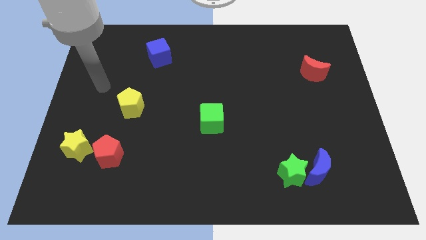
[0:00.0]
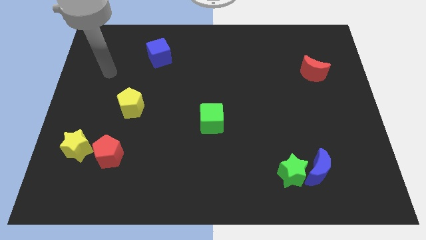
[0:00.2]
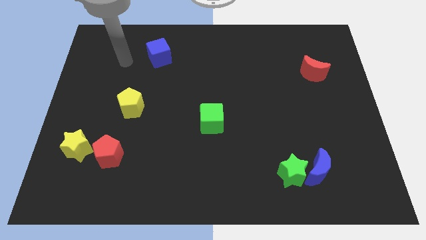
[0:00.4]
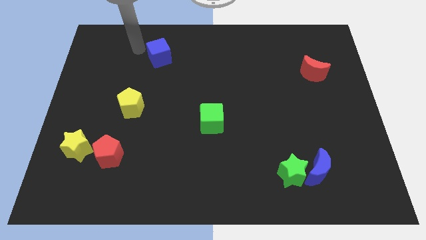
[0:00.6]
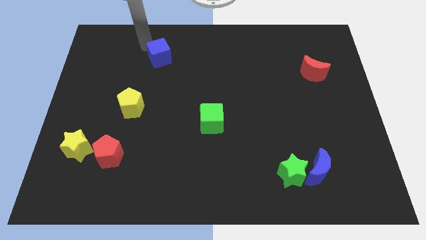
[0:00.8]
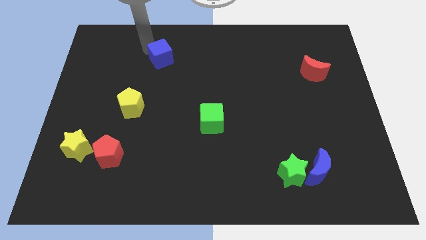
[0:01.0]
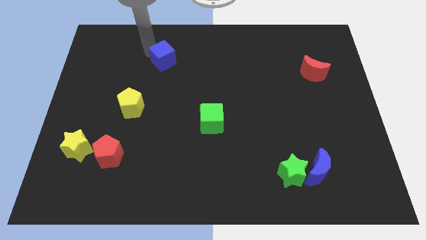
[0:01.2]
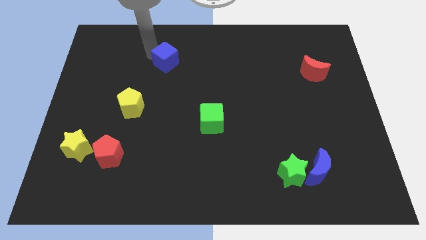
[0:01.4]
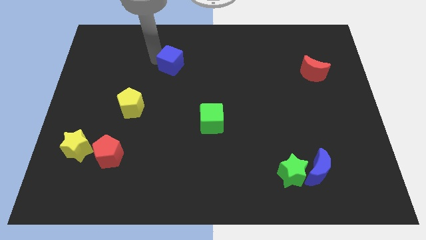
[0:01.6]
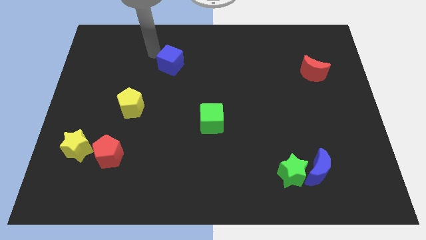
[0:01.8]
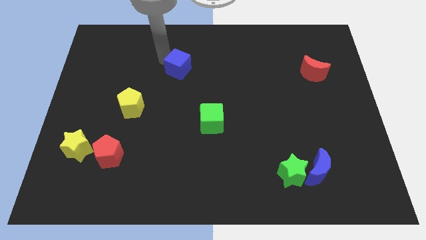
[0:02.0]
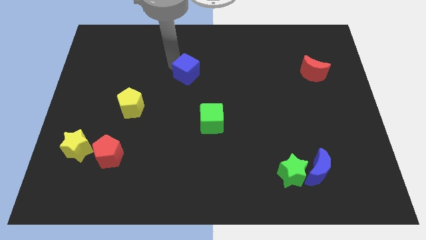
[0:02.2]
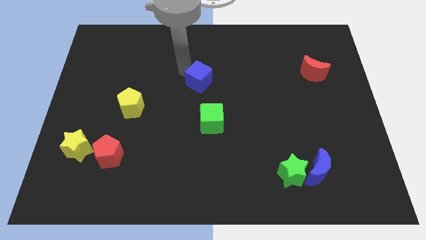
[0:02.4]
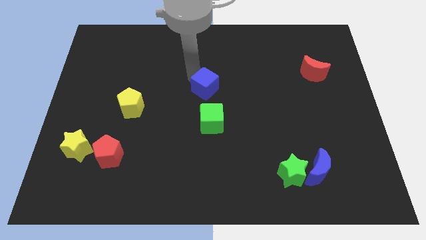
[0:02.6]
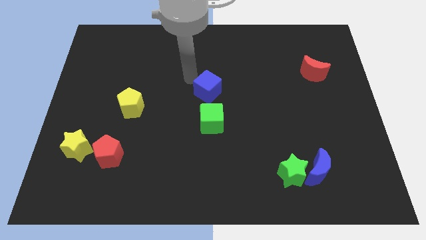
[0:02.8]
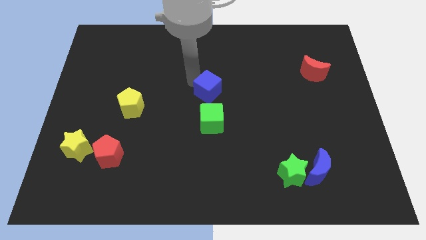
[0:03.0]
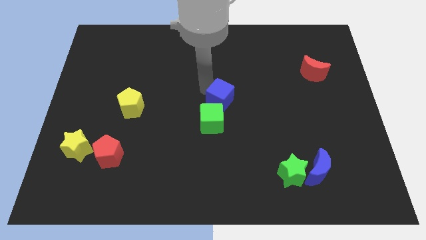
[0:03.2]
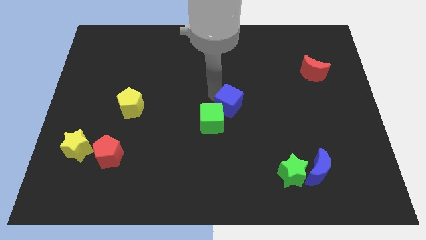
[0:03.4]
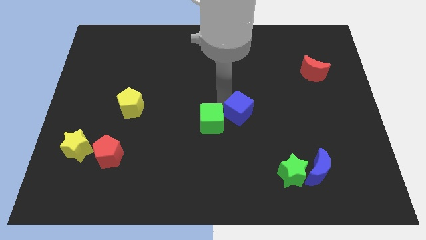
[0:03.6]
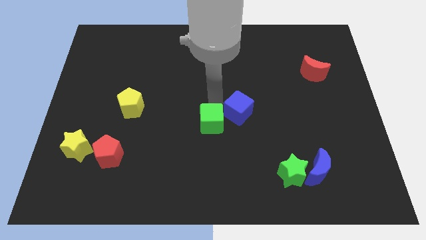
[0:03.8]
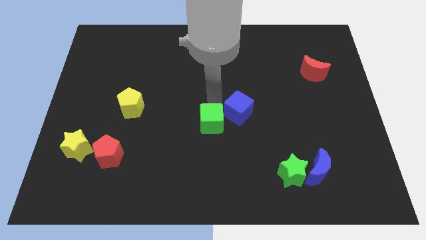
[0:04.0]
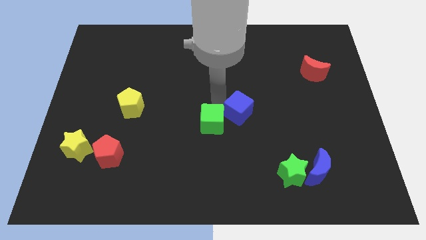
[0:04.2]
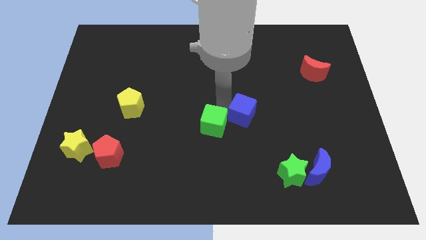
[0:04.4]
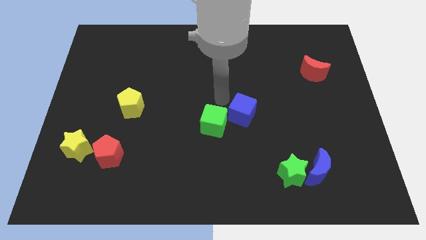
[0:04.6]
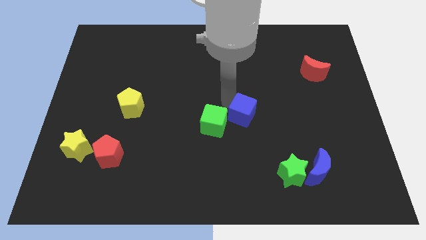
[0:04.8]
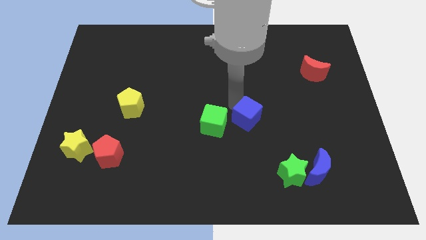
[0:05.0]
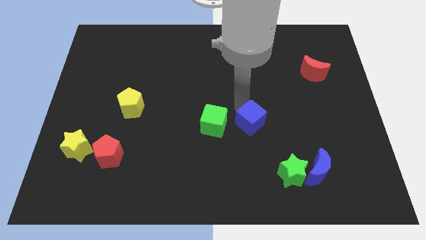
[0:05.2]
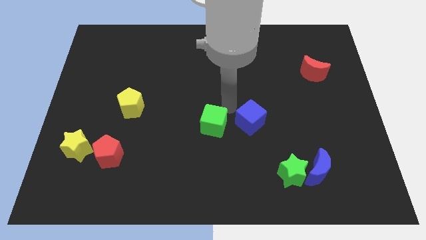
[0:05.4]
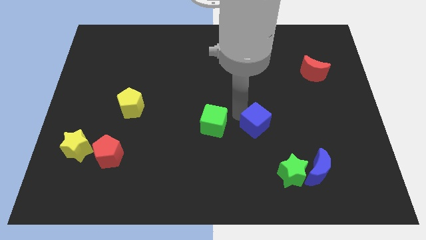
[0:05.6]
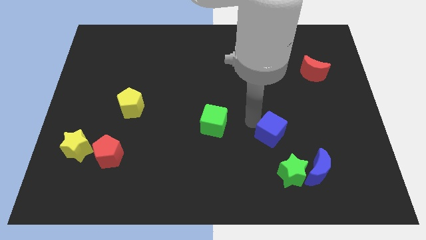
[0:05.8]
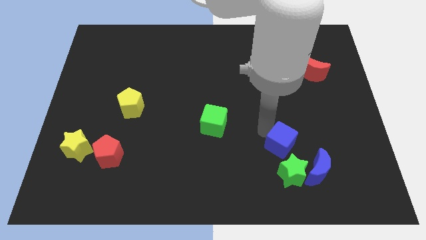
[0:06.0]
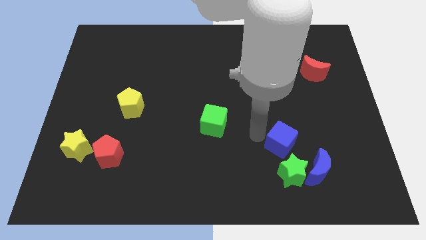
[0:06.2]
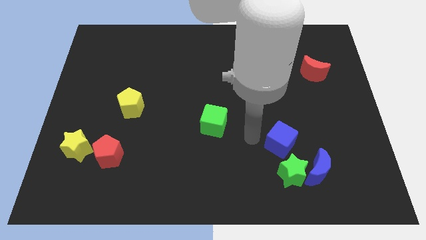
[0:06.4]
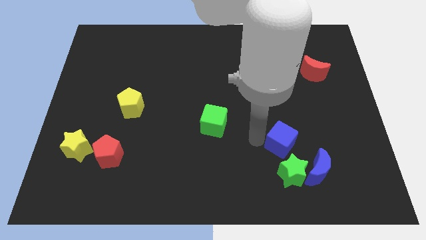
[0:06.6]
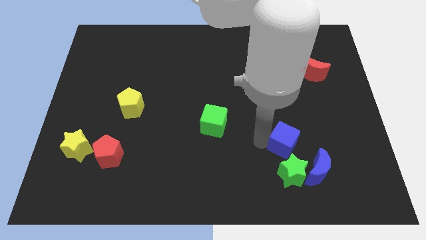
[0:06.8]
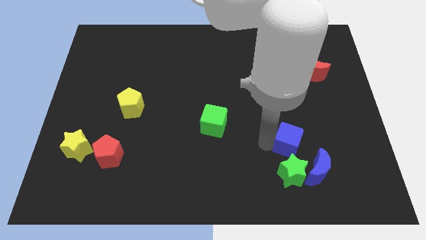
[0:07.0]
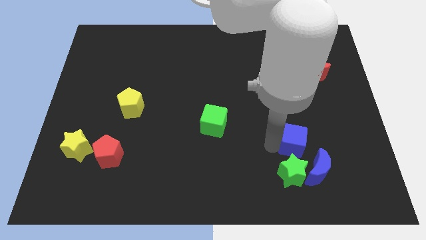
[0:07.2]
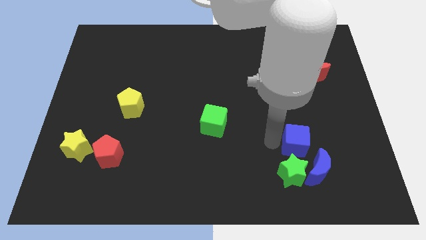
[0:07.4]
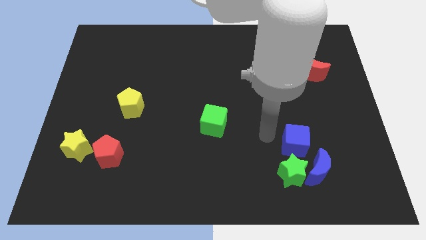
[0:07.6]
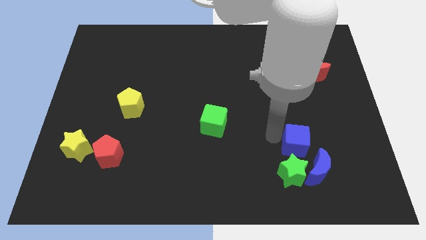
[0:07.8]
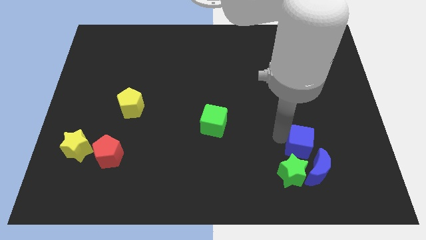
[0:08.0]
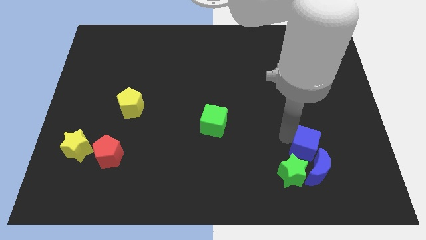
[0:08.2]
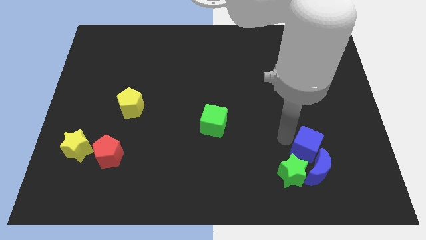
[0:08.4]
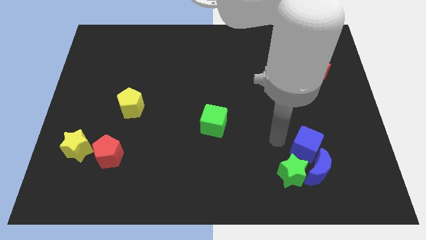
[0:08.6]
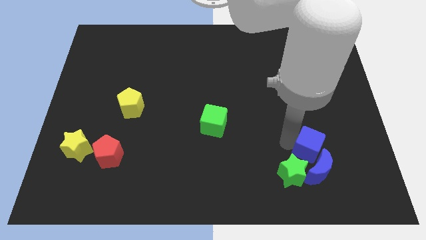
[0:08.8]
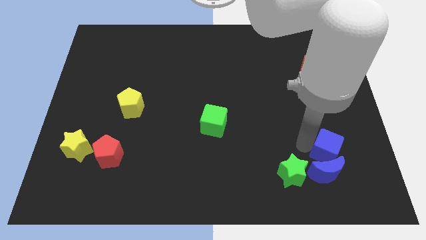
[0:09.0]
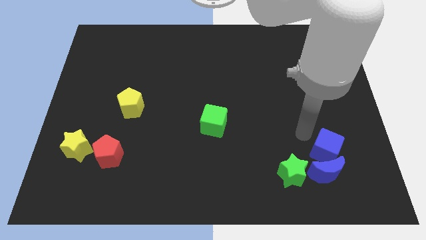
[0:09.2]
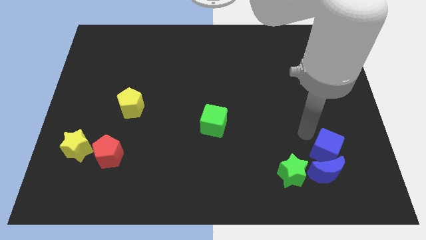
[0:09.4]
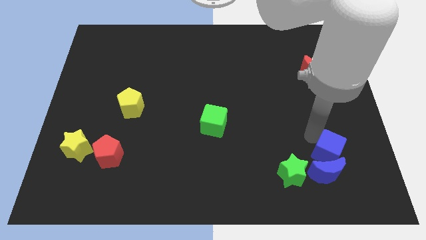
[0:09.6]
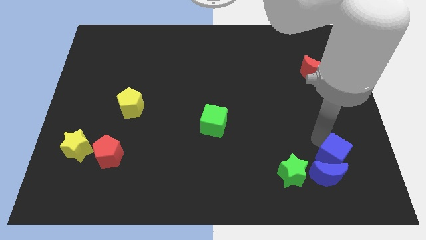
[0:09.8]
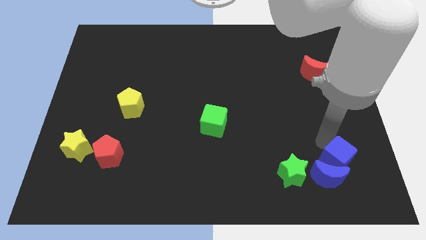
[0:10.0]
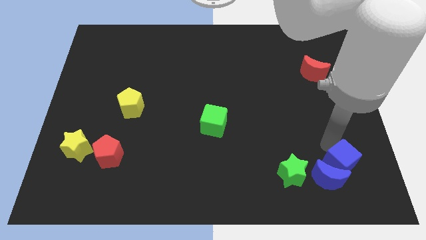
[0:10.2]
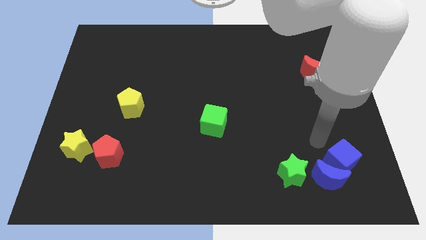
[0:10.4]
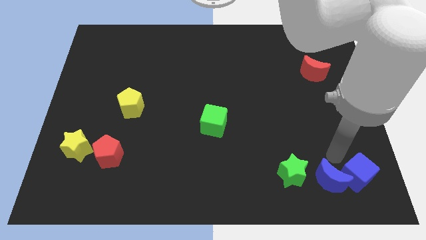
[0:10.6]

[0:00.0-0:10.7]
push the blue cube to the bottom right

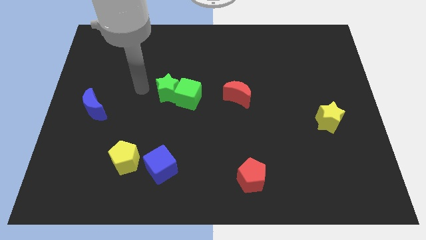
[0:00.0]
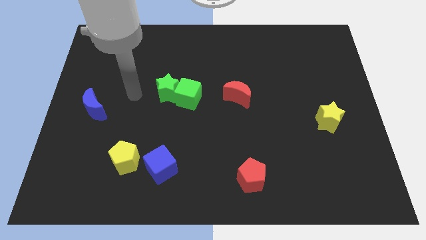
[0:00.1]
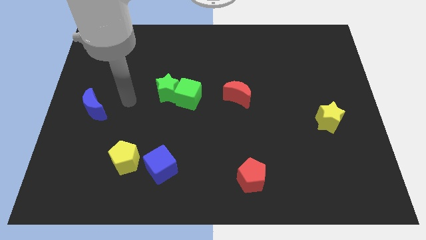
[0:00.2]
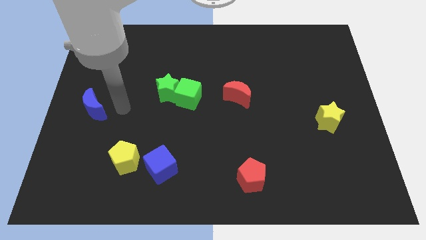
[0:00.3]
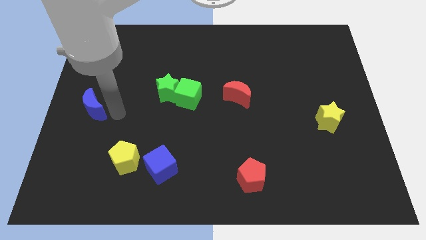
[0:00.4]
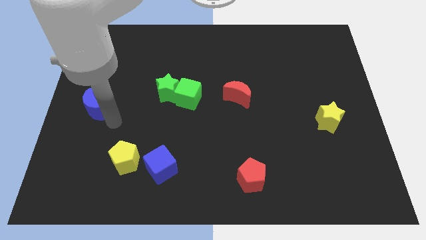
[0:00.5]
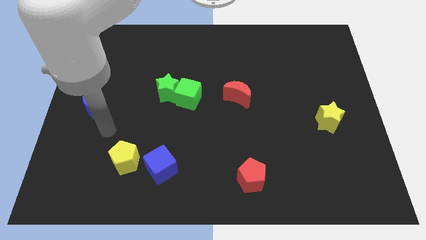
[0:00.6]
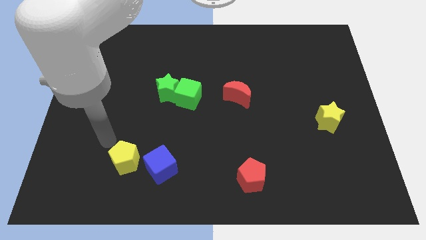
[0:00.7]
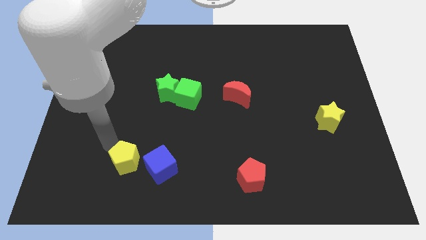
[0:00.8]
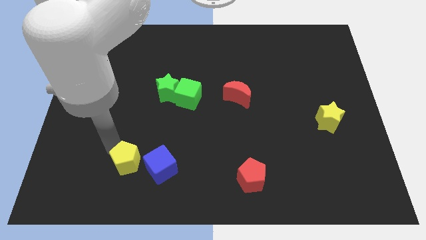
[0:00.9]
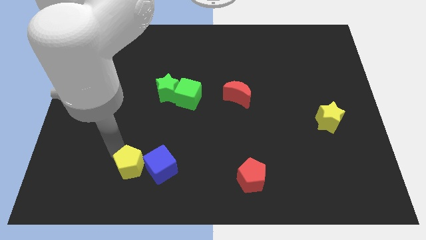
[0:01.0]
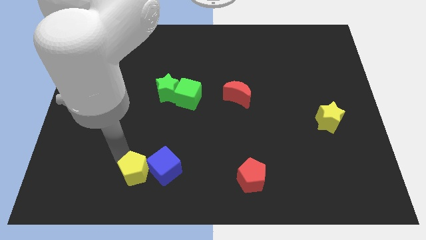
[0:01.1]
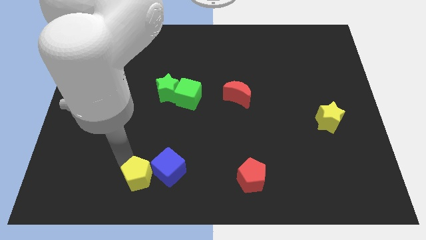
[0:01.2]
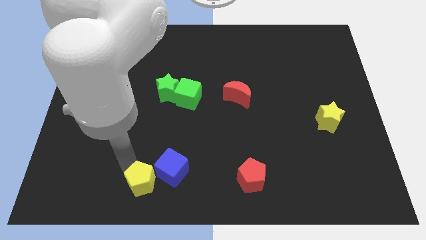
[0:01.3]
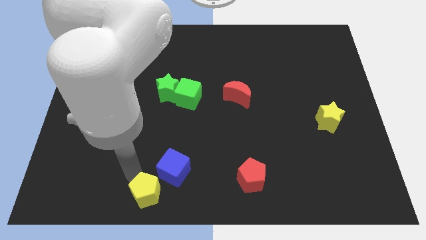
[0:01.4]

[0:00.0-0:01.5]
slide the yellow pentagon to the bottom side
